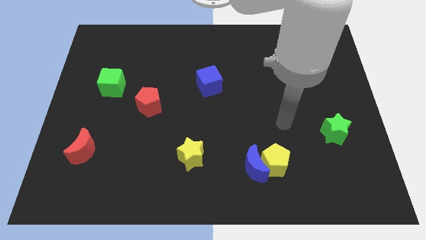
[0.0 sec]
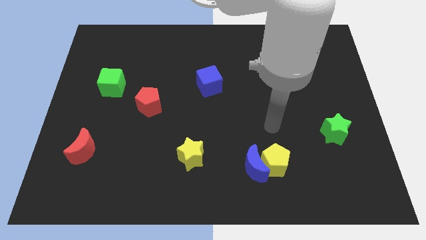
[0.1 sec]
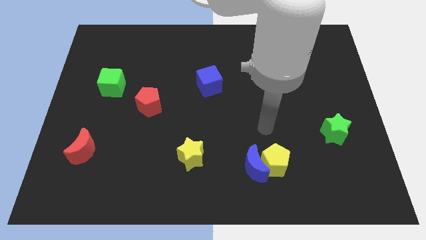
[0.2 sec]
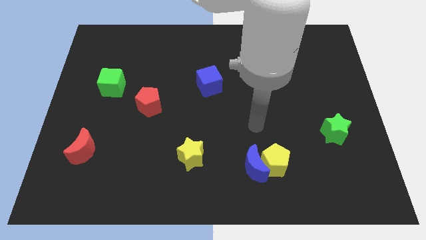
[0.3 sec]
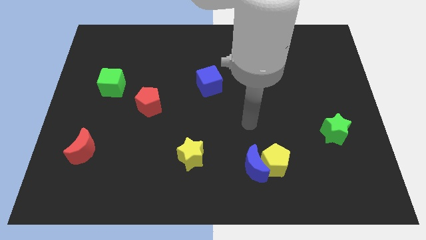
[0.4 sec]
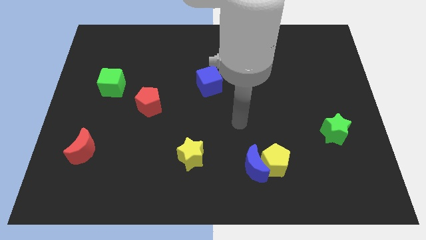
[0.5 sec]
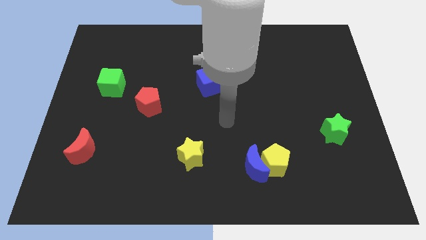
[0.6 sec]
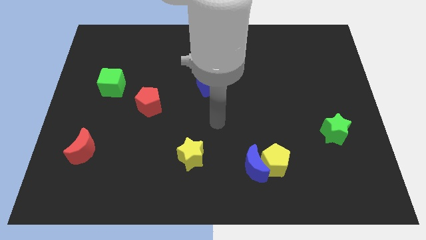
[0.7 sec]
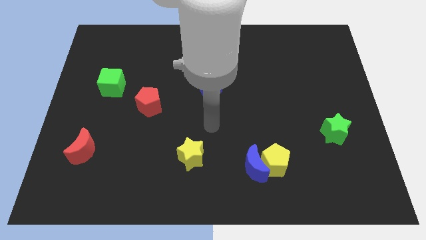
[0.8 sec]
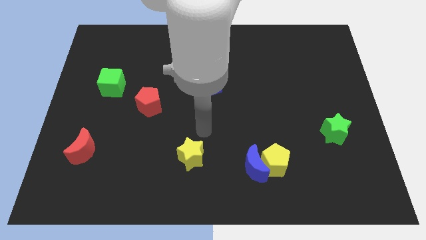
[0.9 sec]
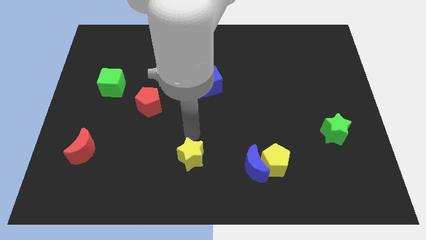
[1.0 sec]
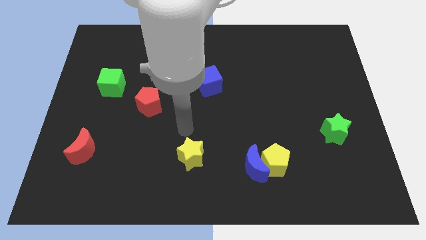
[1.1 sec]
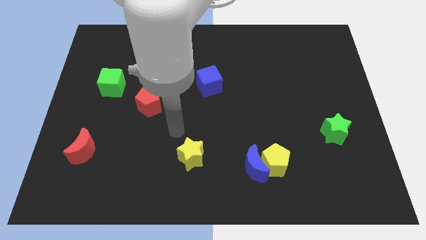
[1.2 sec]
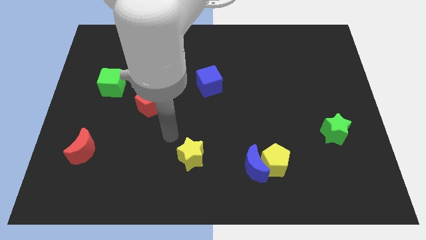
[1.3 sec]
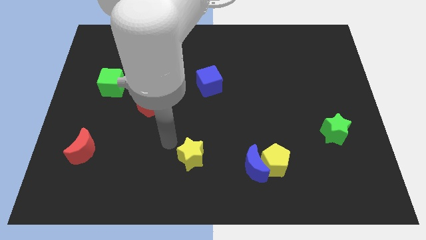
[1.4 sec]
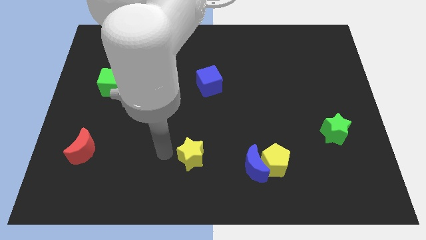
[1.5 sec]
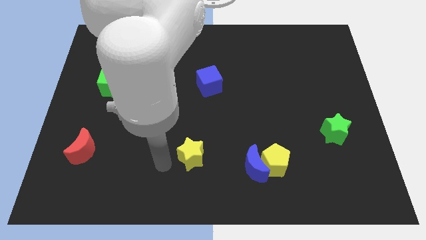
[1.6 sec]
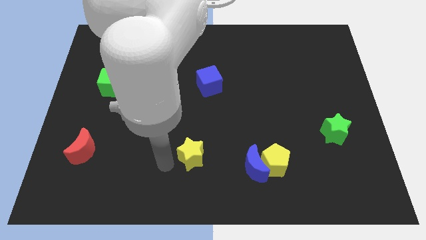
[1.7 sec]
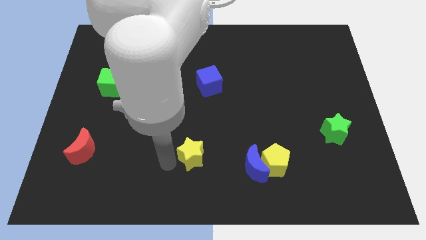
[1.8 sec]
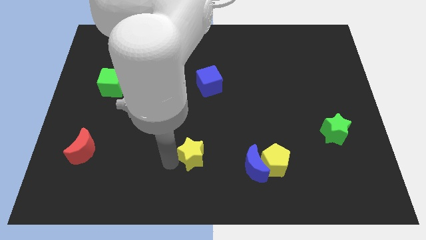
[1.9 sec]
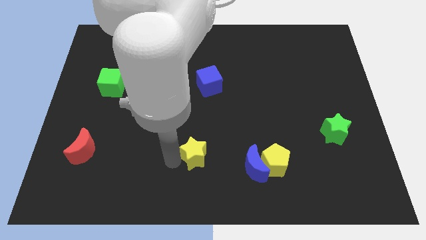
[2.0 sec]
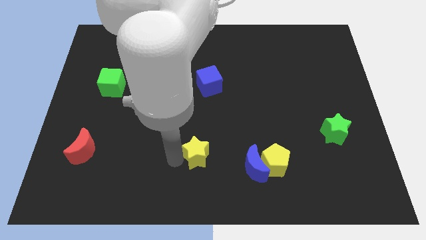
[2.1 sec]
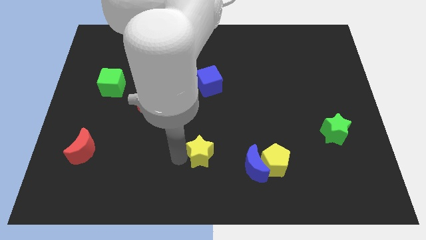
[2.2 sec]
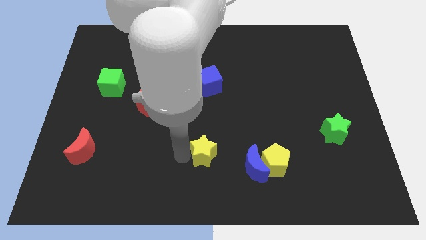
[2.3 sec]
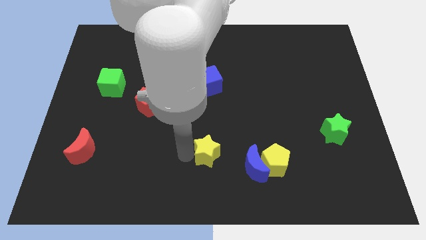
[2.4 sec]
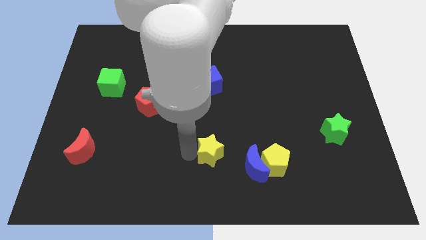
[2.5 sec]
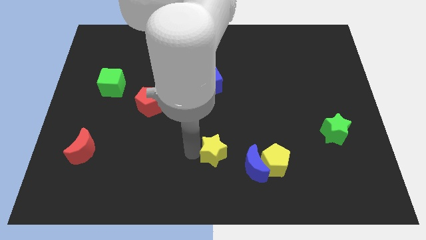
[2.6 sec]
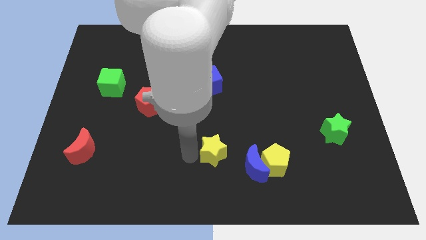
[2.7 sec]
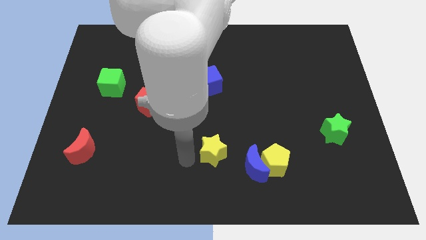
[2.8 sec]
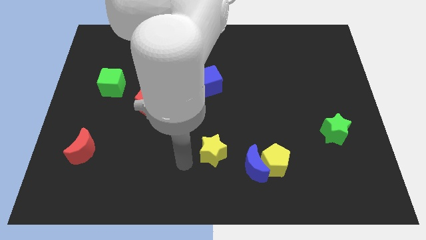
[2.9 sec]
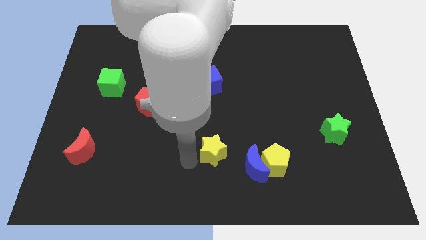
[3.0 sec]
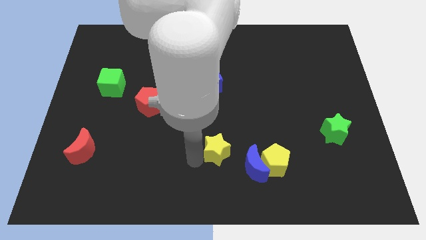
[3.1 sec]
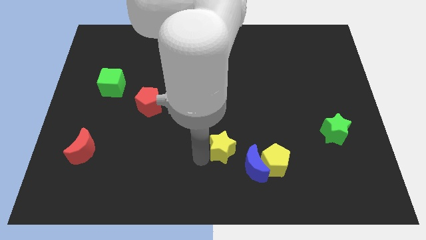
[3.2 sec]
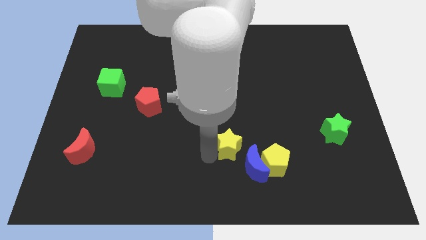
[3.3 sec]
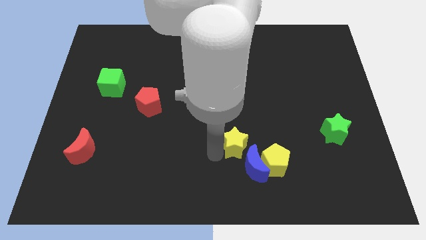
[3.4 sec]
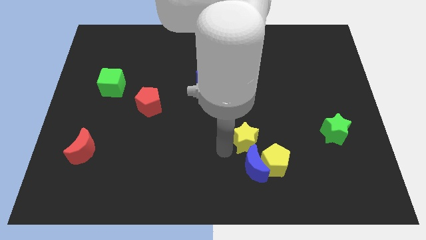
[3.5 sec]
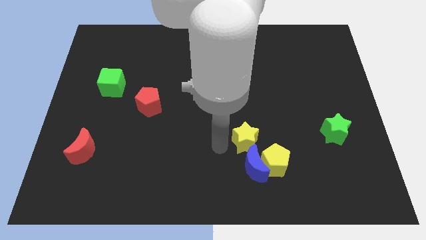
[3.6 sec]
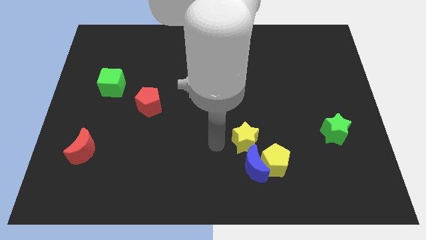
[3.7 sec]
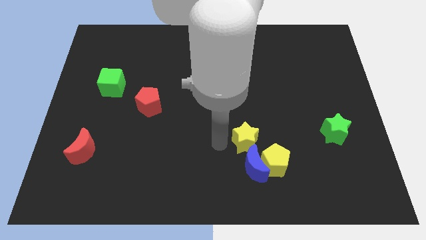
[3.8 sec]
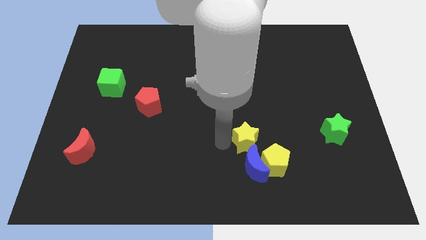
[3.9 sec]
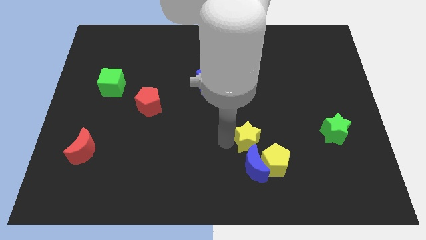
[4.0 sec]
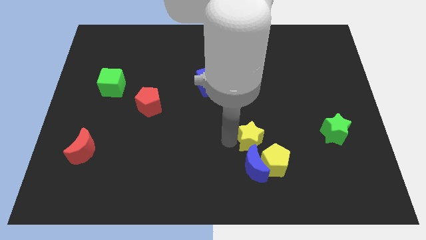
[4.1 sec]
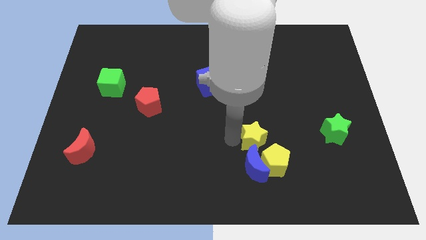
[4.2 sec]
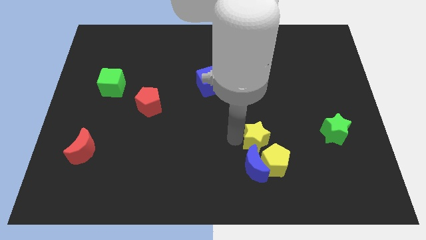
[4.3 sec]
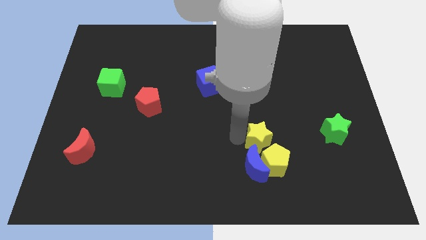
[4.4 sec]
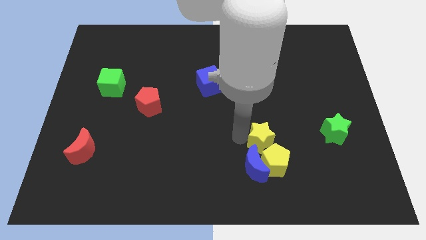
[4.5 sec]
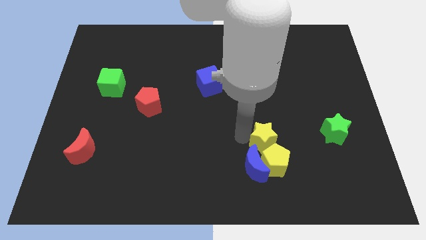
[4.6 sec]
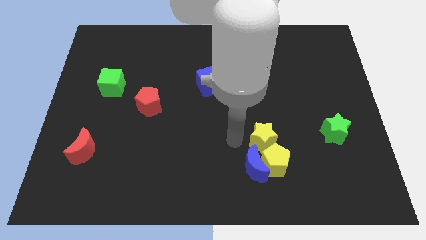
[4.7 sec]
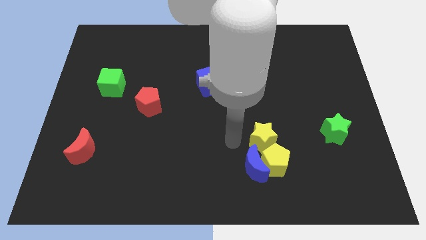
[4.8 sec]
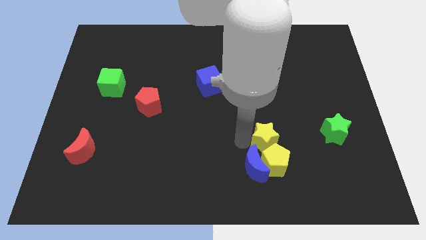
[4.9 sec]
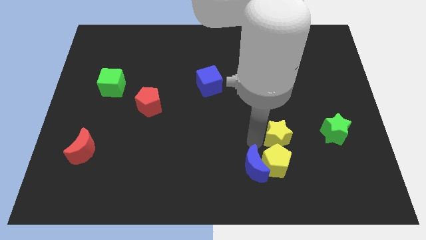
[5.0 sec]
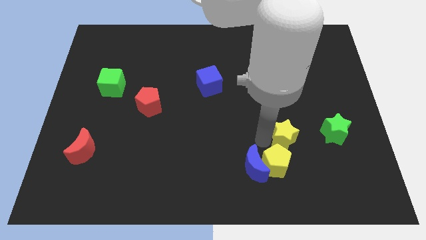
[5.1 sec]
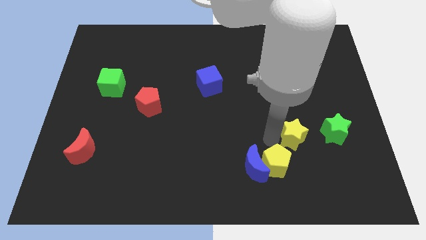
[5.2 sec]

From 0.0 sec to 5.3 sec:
move the yellow star right

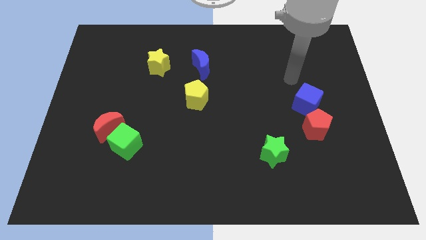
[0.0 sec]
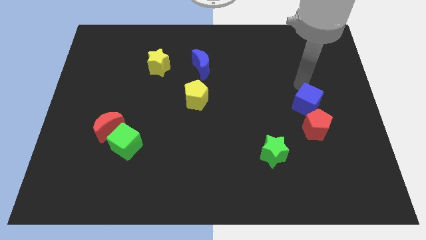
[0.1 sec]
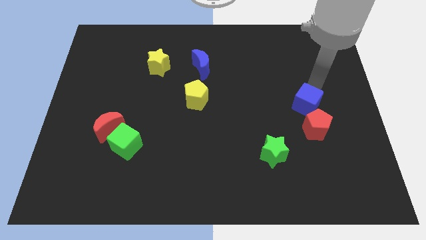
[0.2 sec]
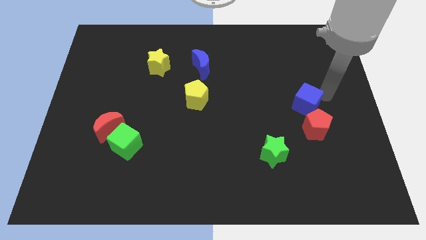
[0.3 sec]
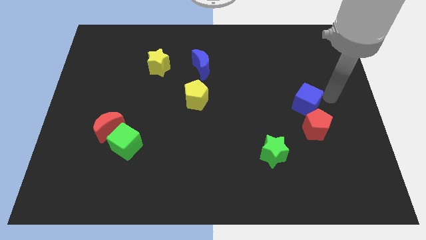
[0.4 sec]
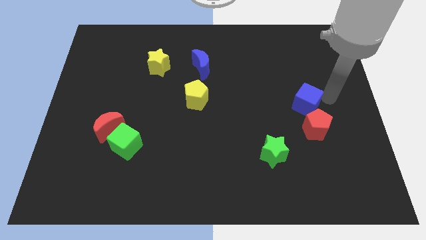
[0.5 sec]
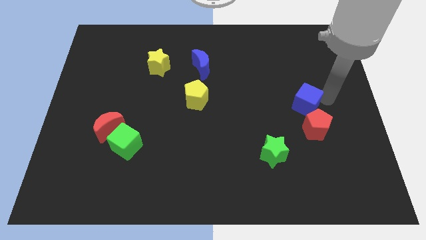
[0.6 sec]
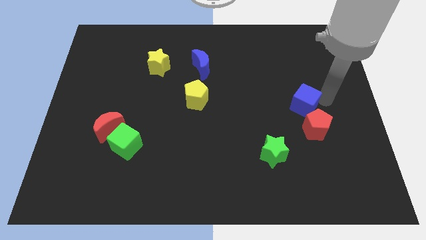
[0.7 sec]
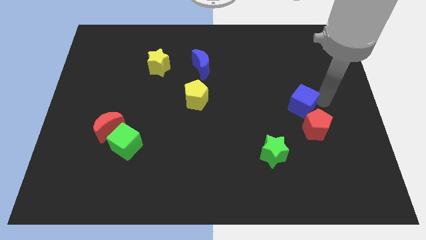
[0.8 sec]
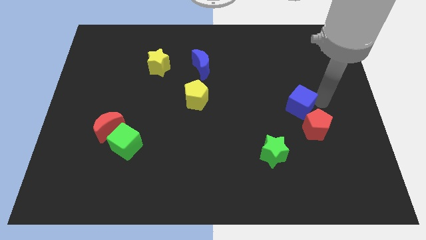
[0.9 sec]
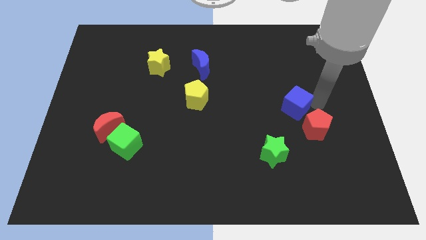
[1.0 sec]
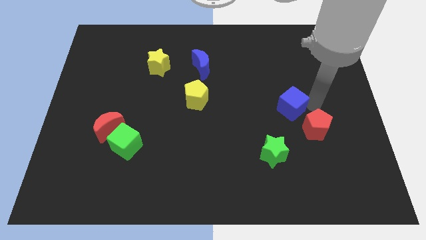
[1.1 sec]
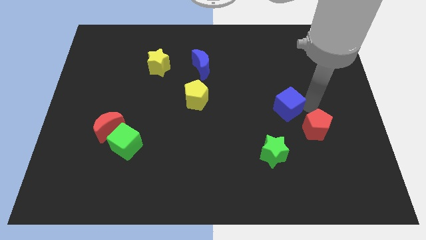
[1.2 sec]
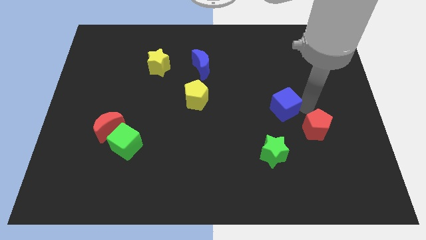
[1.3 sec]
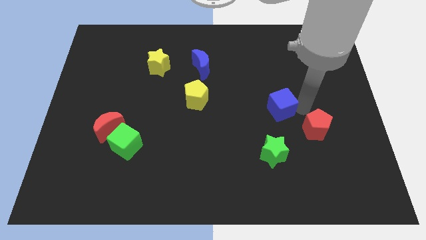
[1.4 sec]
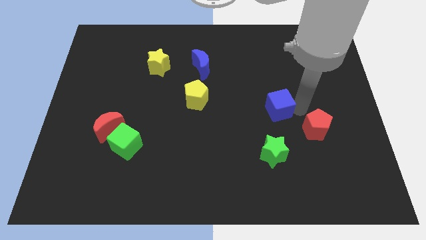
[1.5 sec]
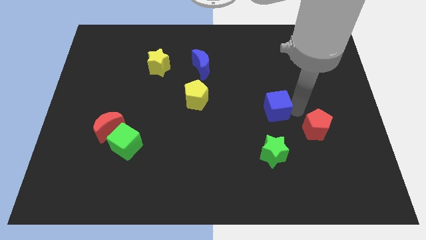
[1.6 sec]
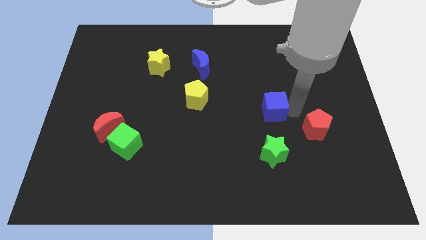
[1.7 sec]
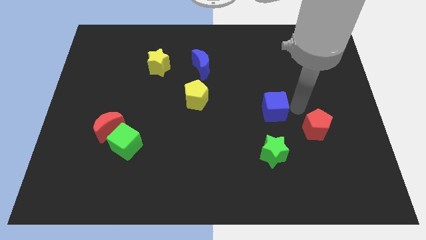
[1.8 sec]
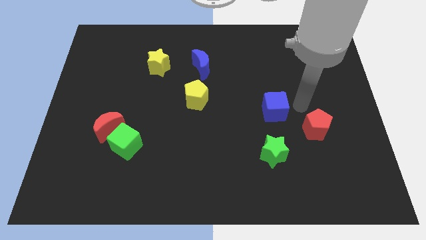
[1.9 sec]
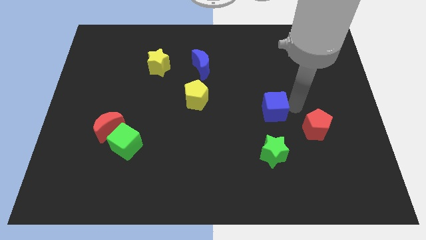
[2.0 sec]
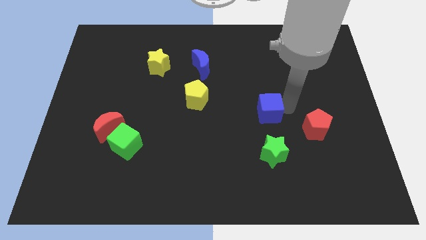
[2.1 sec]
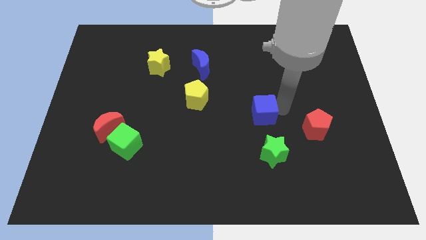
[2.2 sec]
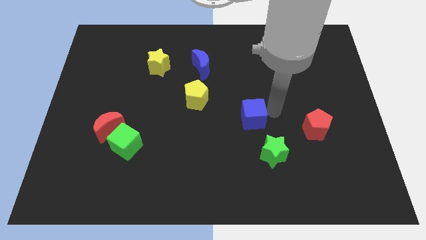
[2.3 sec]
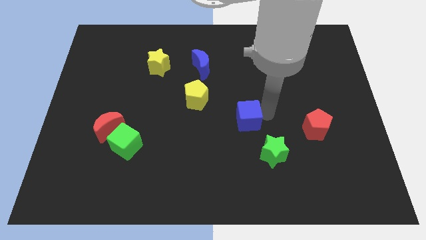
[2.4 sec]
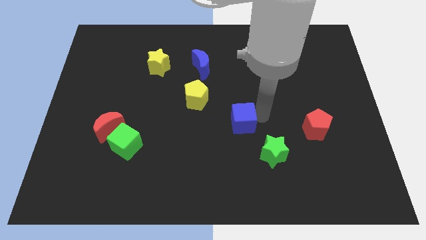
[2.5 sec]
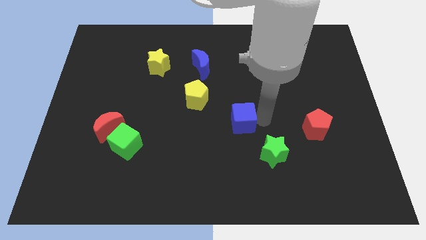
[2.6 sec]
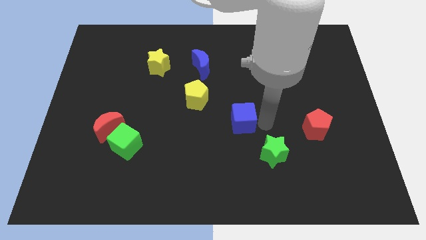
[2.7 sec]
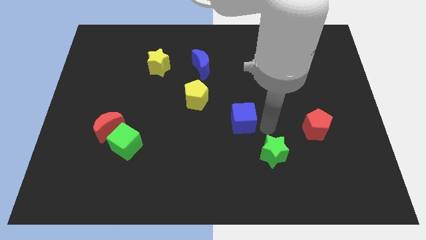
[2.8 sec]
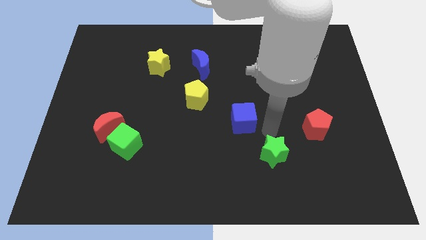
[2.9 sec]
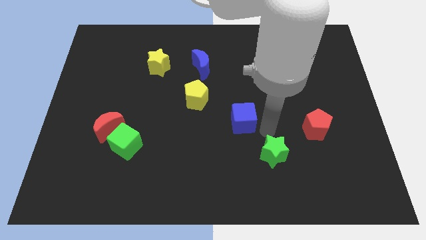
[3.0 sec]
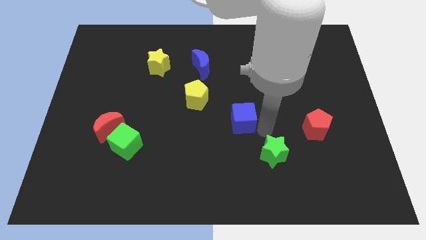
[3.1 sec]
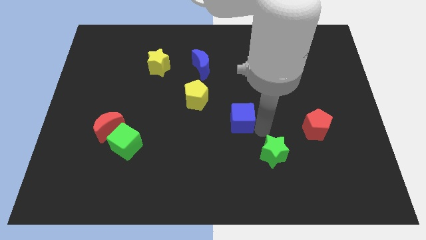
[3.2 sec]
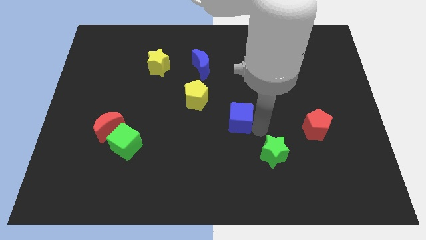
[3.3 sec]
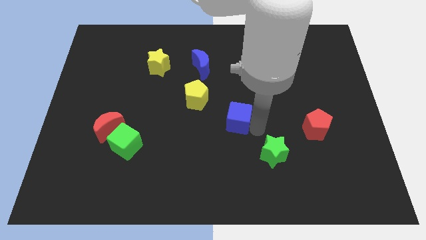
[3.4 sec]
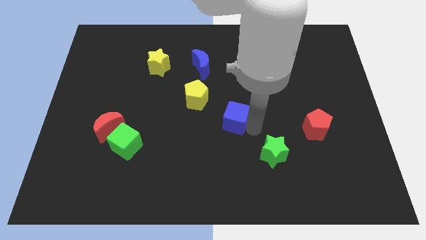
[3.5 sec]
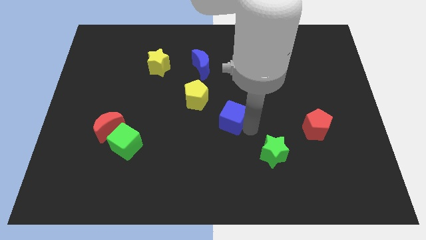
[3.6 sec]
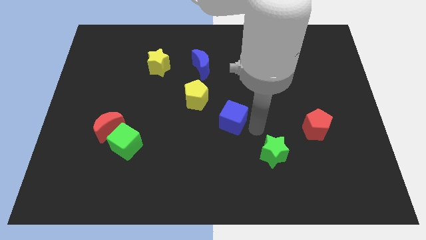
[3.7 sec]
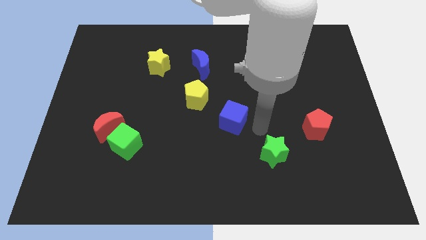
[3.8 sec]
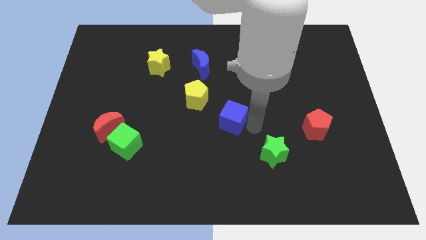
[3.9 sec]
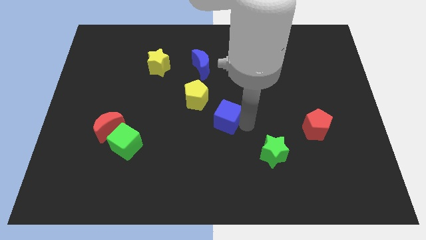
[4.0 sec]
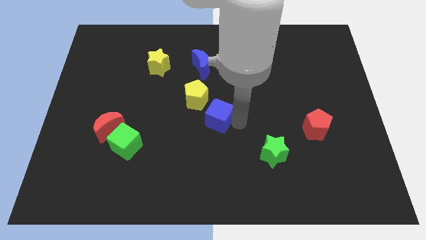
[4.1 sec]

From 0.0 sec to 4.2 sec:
push the blue cube left
